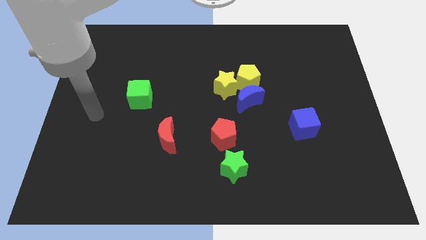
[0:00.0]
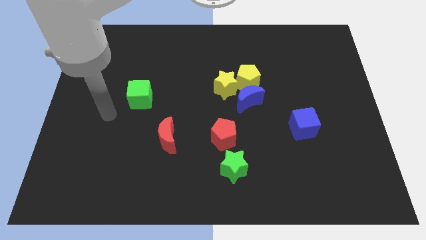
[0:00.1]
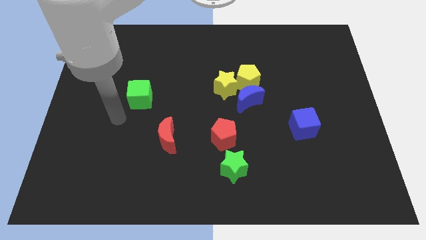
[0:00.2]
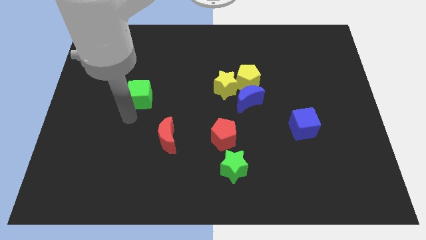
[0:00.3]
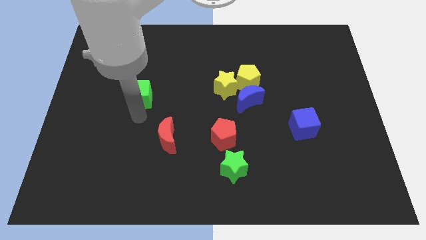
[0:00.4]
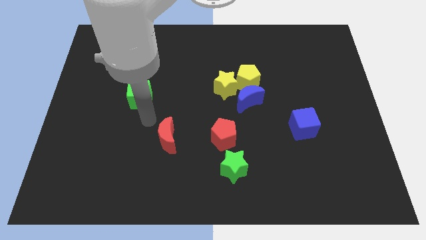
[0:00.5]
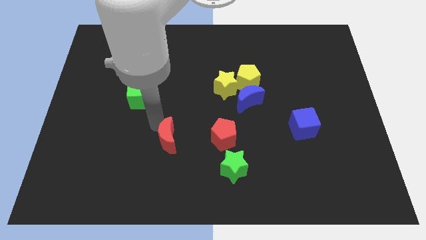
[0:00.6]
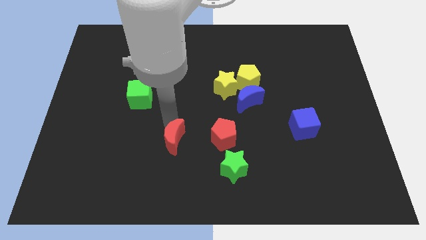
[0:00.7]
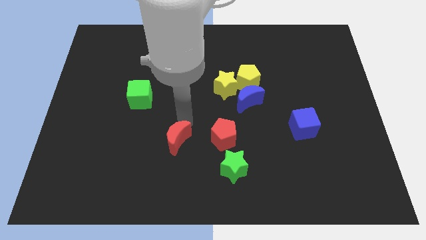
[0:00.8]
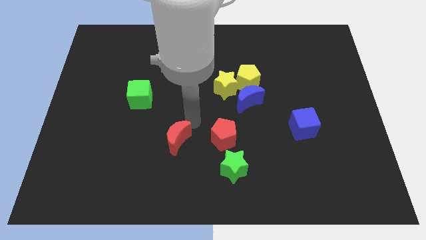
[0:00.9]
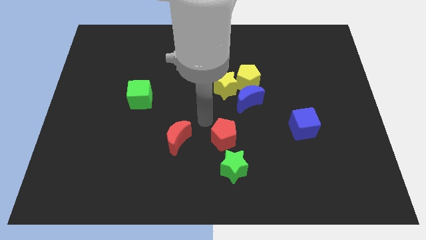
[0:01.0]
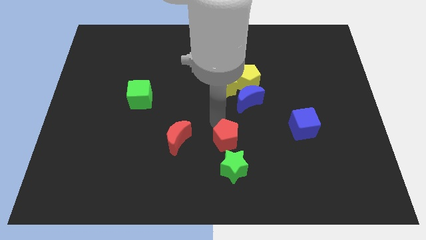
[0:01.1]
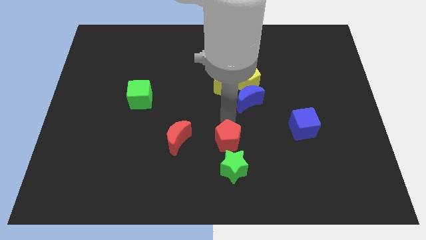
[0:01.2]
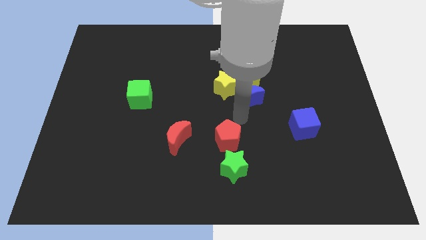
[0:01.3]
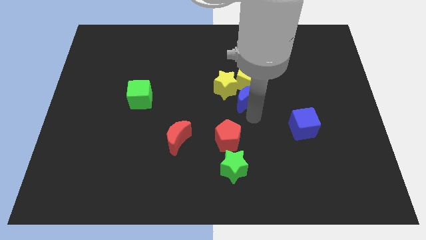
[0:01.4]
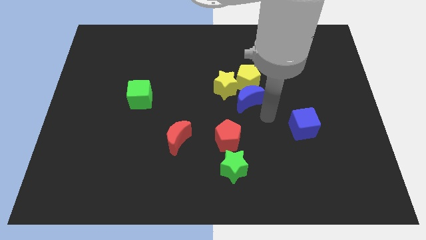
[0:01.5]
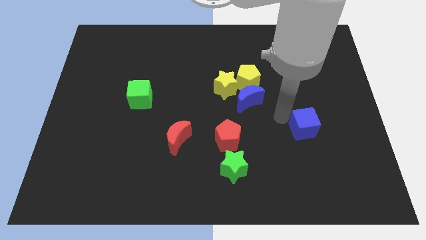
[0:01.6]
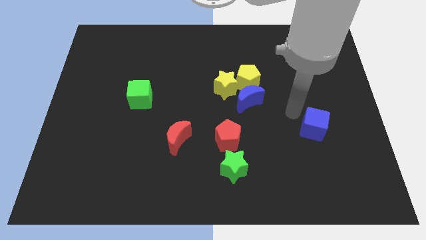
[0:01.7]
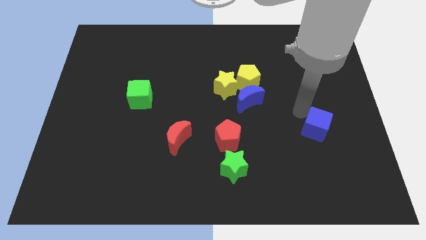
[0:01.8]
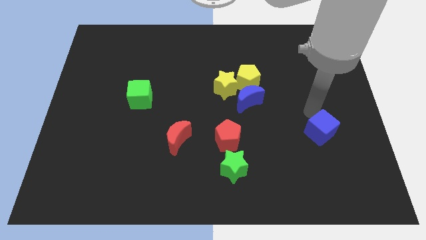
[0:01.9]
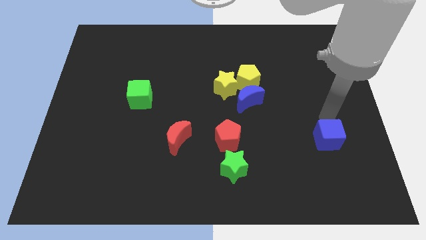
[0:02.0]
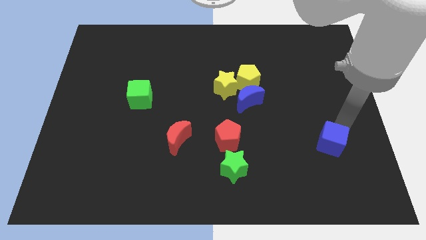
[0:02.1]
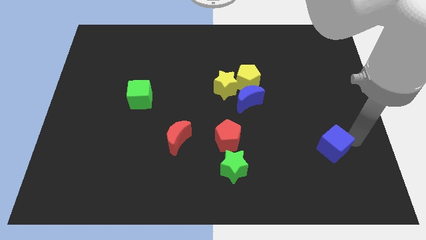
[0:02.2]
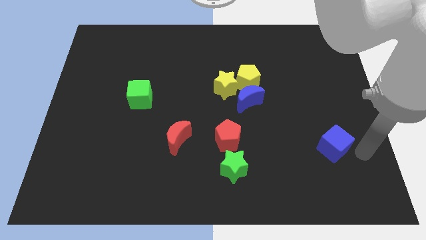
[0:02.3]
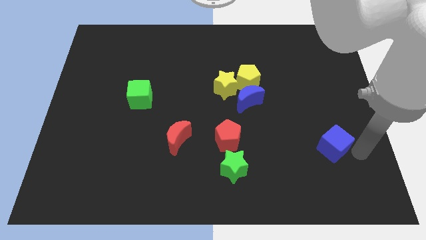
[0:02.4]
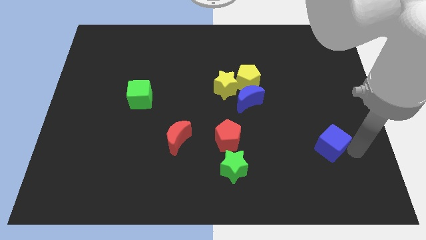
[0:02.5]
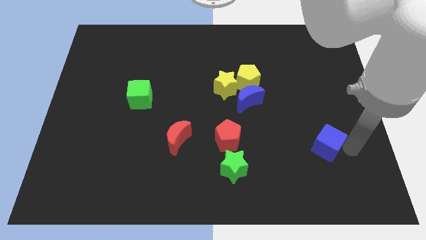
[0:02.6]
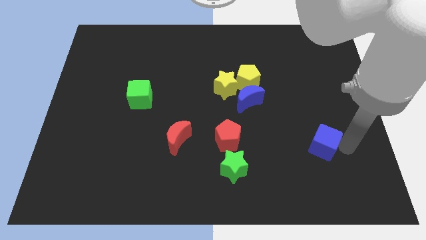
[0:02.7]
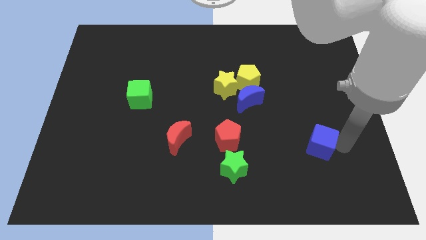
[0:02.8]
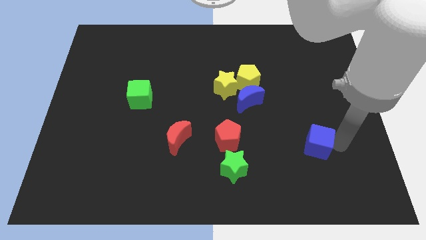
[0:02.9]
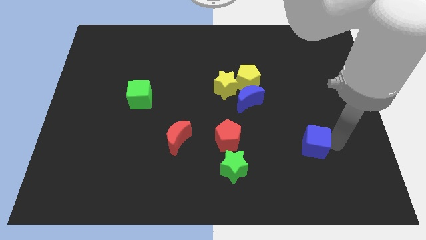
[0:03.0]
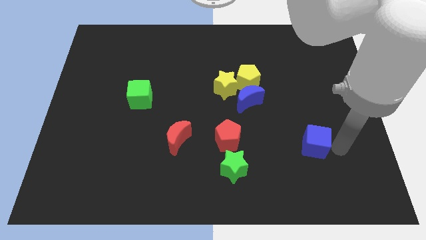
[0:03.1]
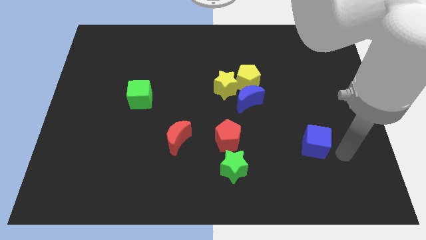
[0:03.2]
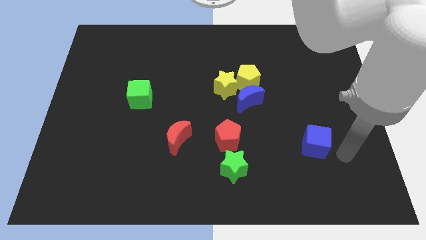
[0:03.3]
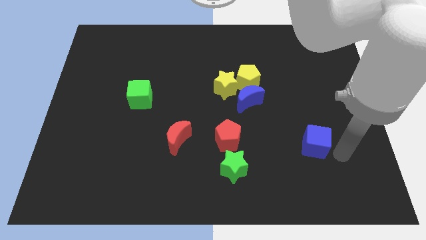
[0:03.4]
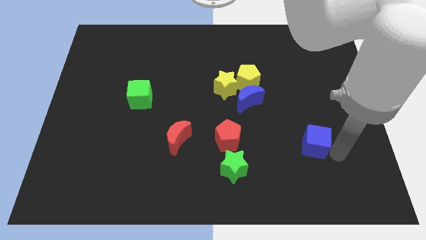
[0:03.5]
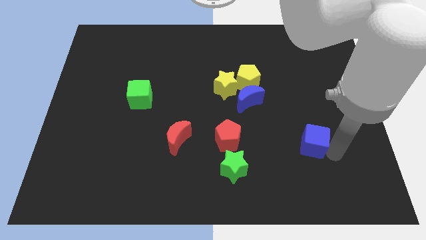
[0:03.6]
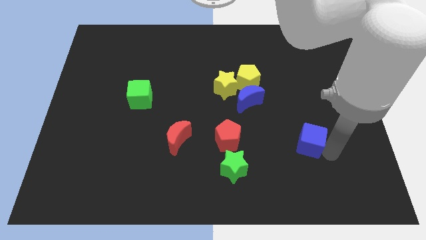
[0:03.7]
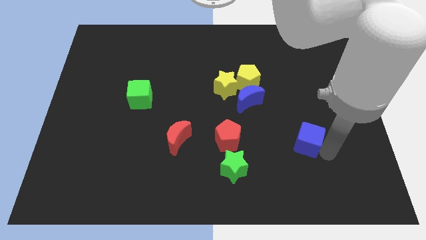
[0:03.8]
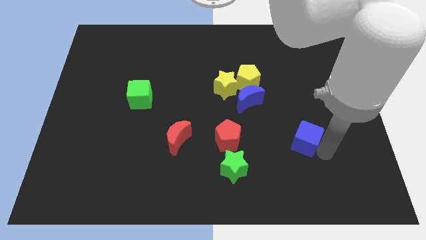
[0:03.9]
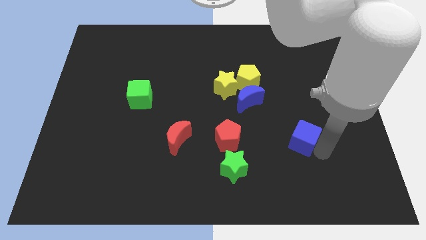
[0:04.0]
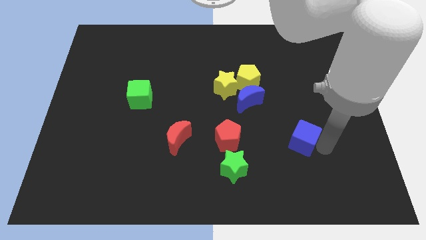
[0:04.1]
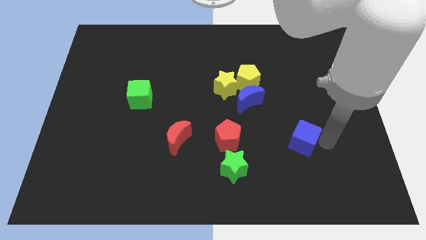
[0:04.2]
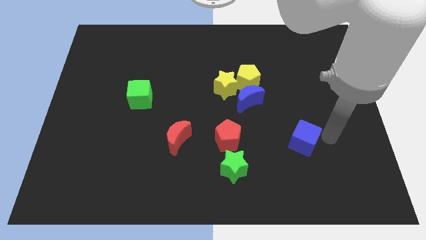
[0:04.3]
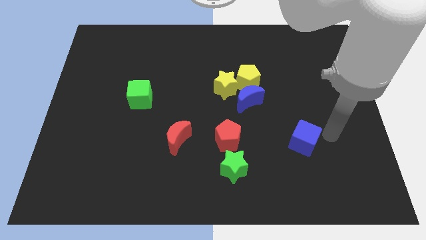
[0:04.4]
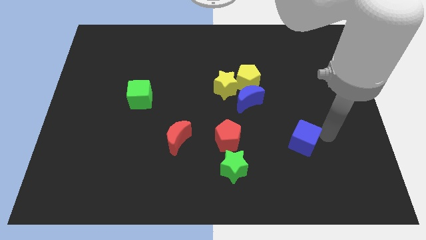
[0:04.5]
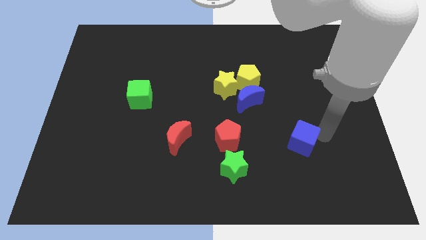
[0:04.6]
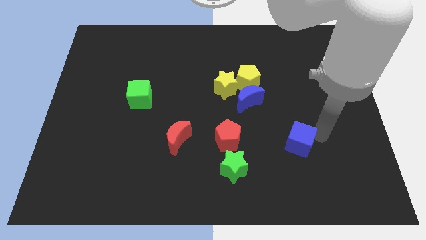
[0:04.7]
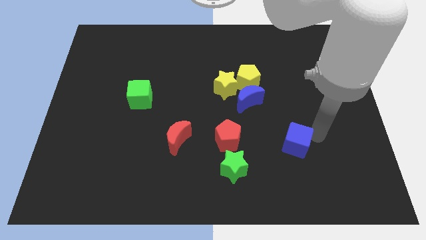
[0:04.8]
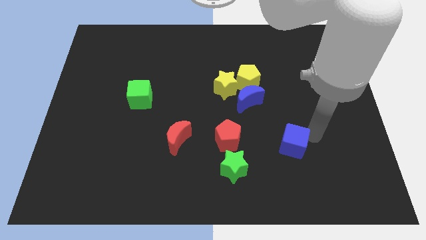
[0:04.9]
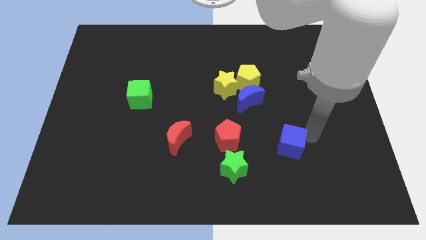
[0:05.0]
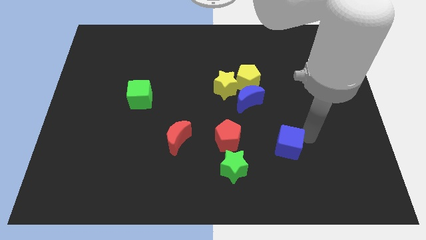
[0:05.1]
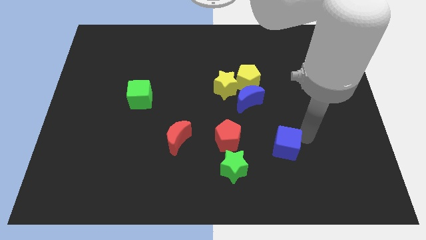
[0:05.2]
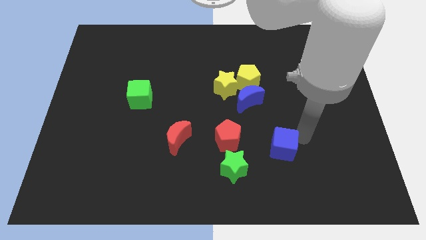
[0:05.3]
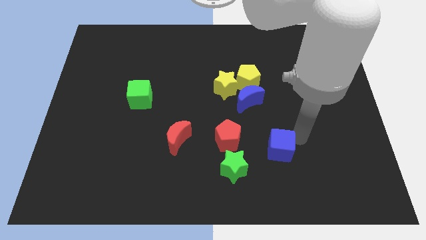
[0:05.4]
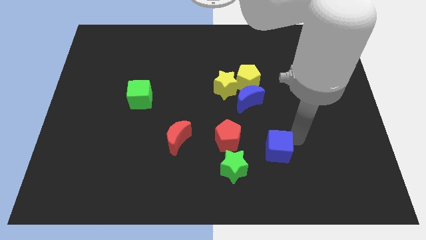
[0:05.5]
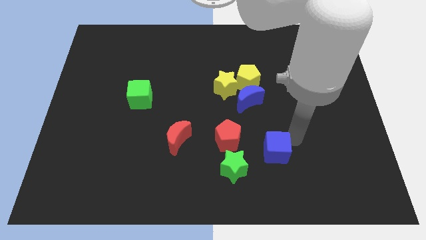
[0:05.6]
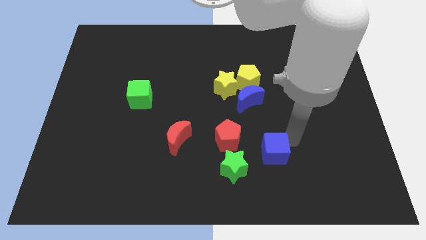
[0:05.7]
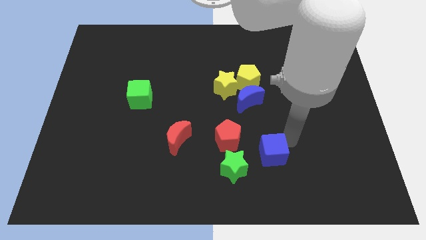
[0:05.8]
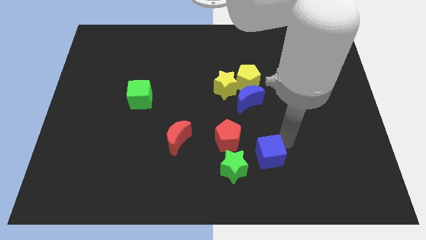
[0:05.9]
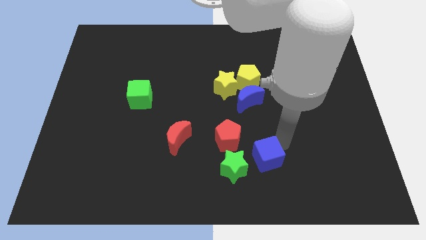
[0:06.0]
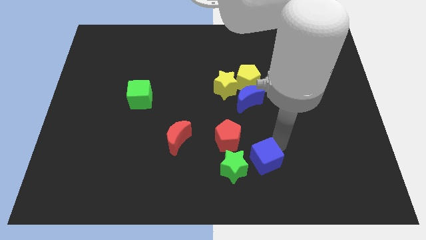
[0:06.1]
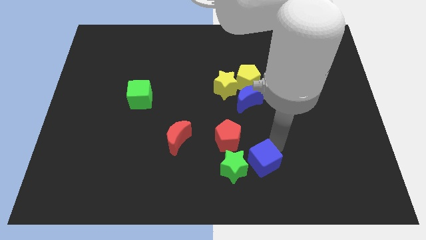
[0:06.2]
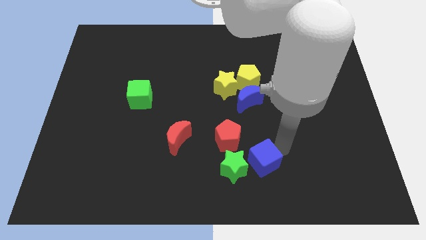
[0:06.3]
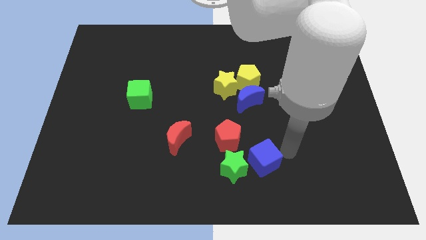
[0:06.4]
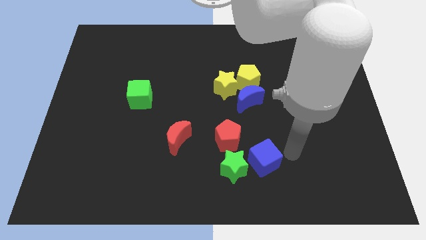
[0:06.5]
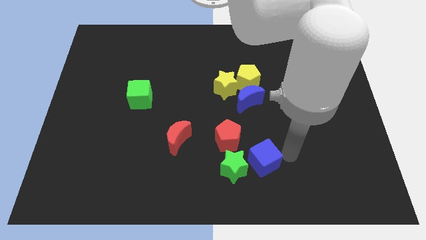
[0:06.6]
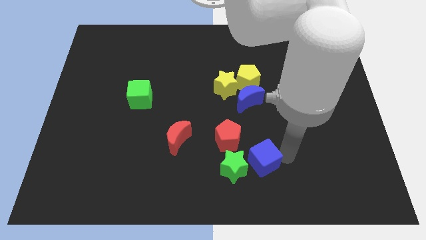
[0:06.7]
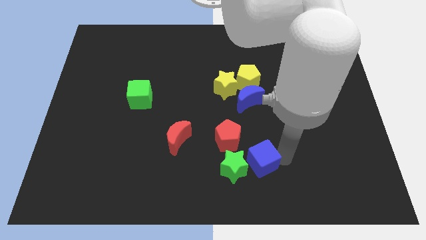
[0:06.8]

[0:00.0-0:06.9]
slide the blue cube close to the green star
